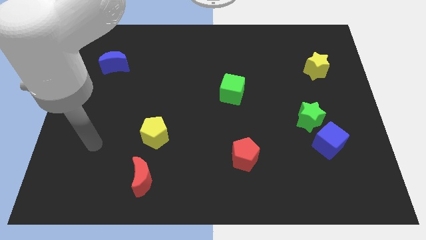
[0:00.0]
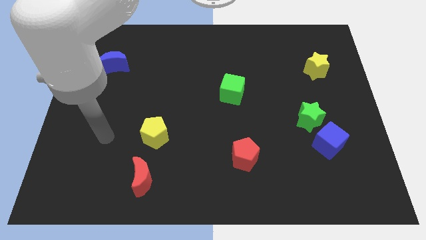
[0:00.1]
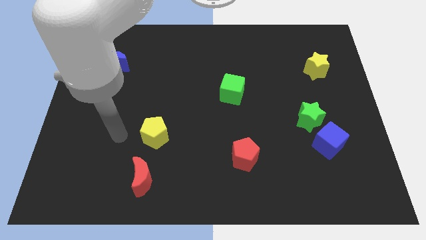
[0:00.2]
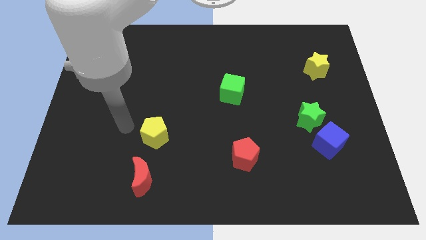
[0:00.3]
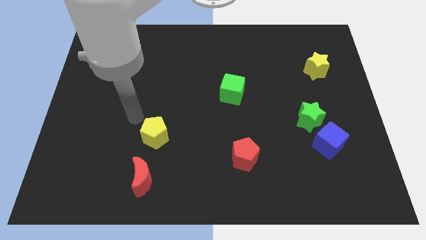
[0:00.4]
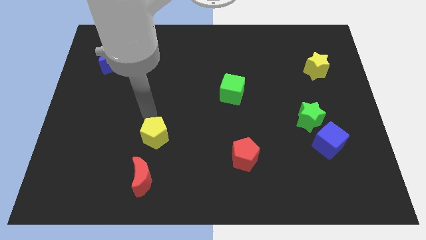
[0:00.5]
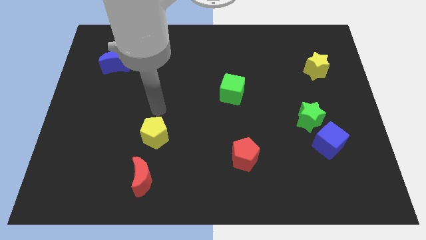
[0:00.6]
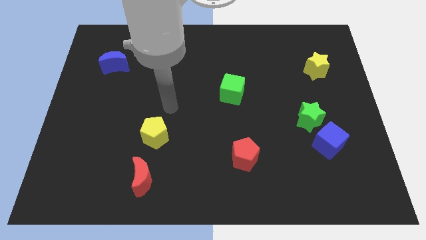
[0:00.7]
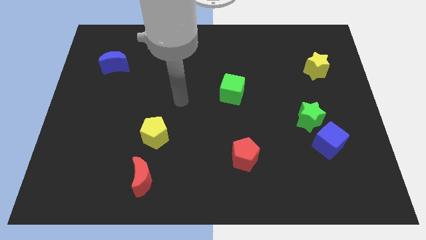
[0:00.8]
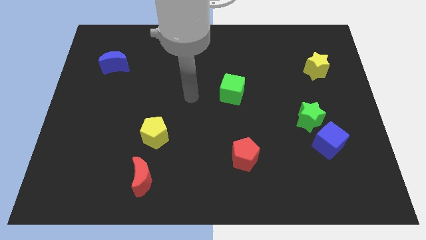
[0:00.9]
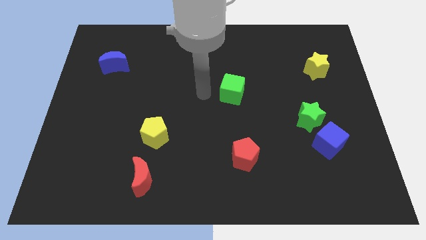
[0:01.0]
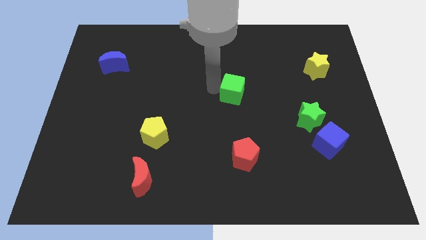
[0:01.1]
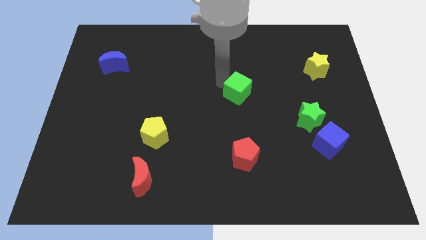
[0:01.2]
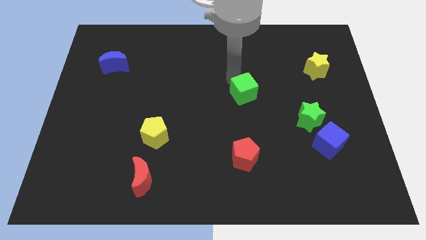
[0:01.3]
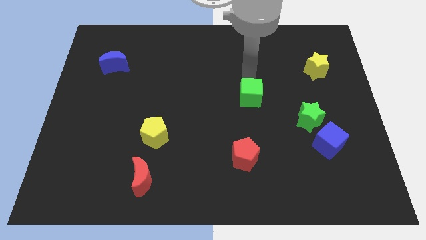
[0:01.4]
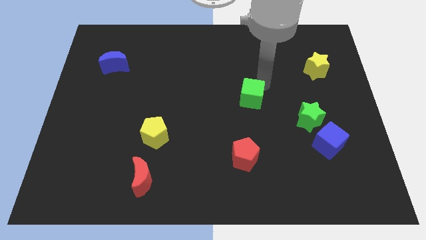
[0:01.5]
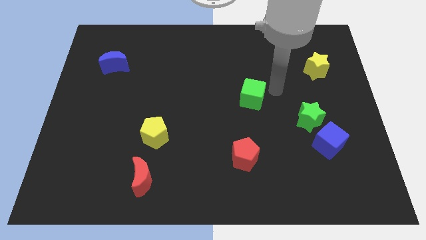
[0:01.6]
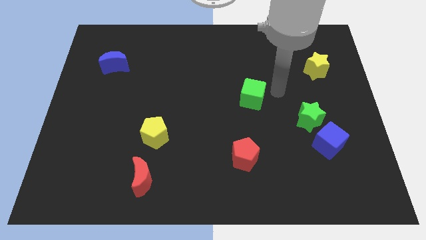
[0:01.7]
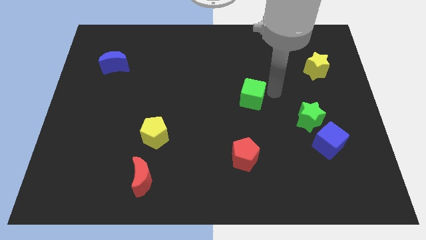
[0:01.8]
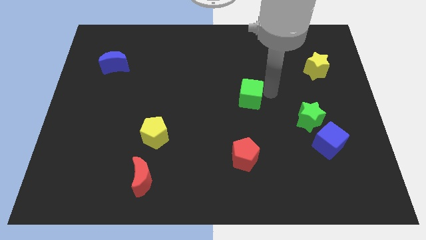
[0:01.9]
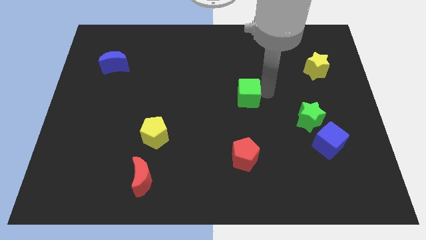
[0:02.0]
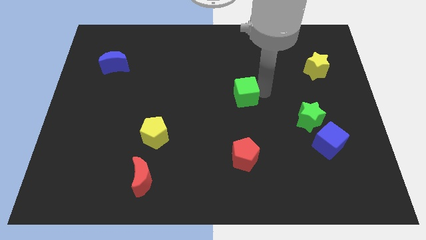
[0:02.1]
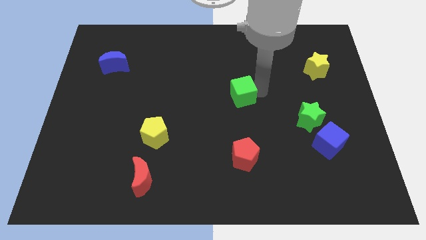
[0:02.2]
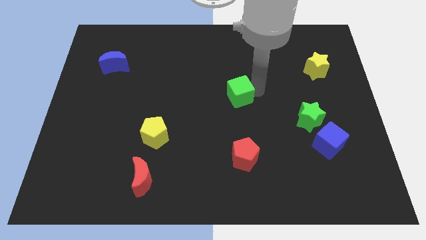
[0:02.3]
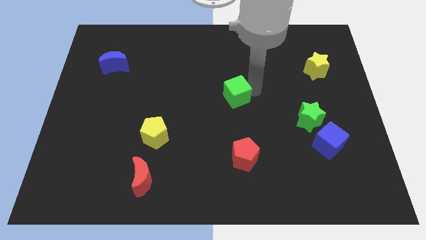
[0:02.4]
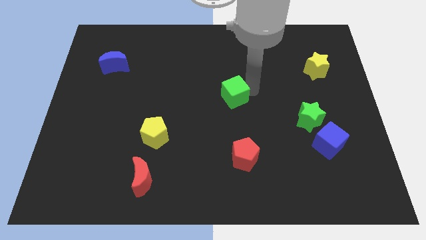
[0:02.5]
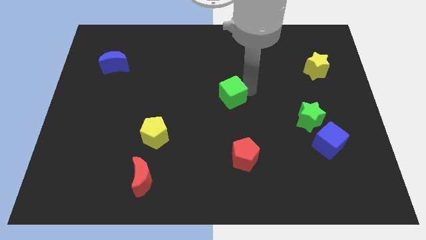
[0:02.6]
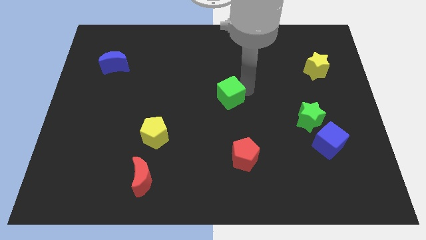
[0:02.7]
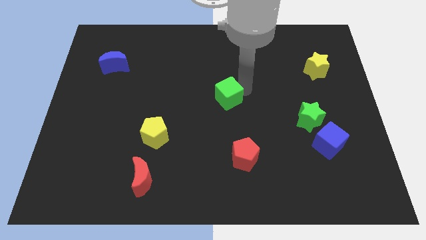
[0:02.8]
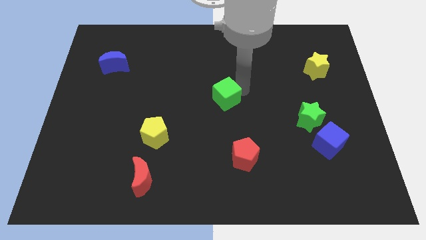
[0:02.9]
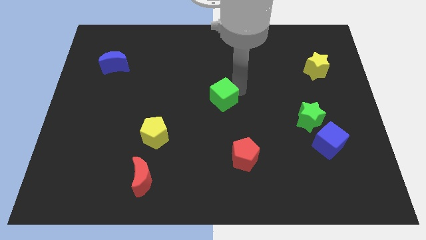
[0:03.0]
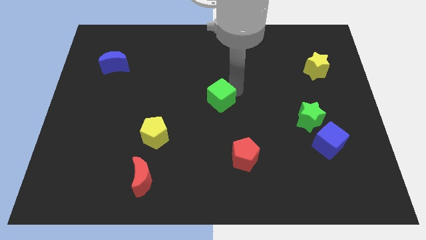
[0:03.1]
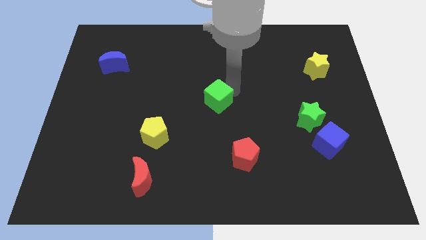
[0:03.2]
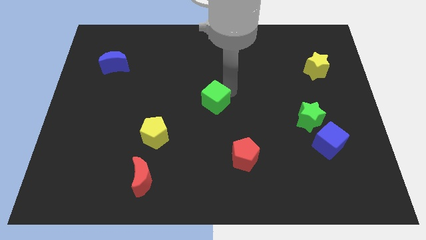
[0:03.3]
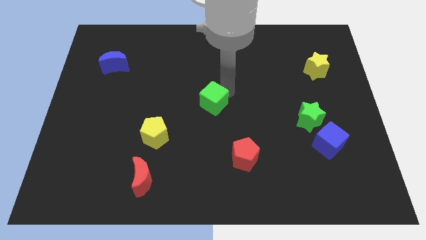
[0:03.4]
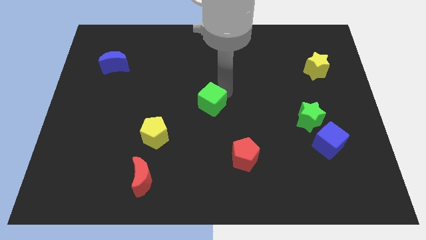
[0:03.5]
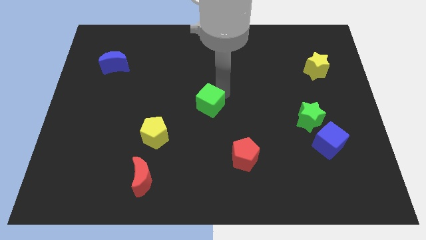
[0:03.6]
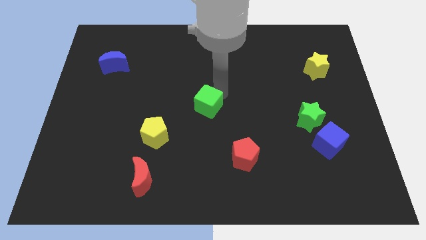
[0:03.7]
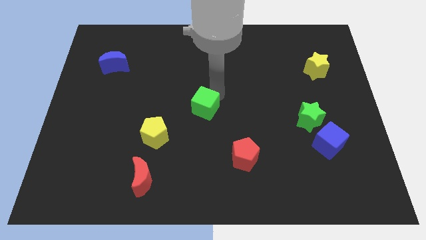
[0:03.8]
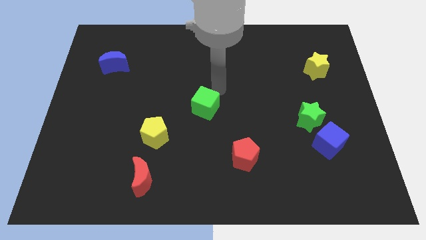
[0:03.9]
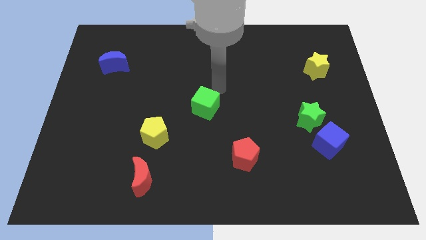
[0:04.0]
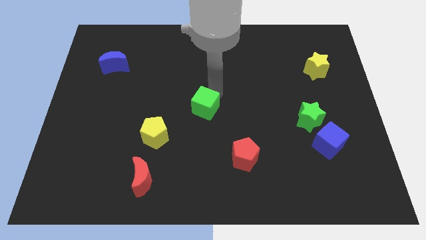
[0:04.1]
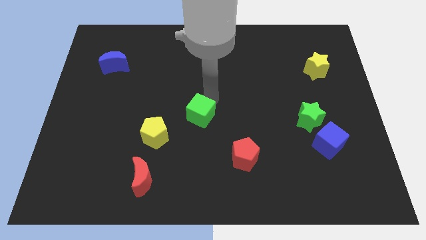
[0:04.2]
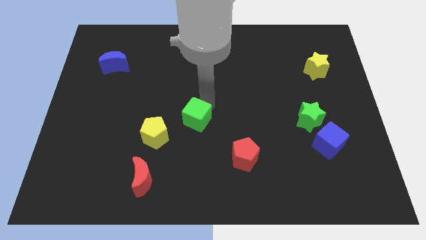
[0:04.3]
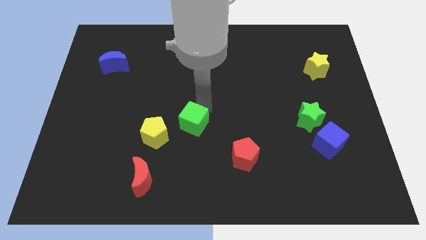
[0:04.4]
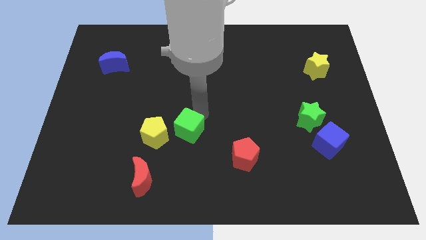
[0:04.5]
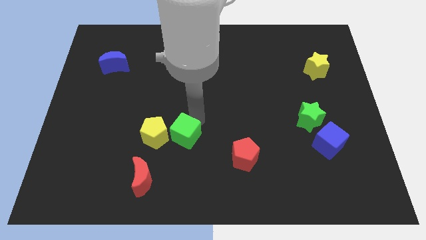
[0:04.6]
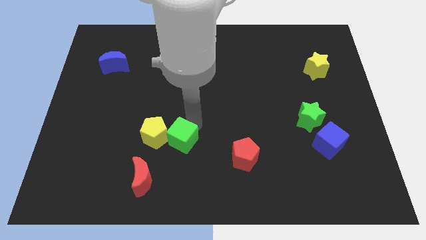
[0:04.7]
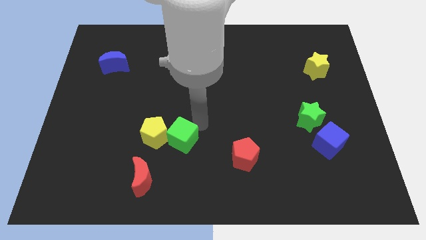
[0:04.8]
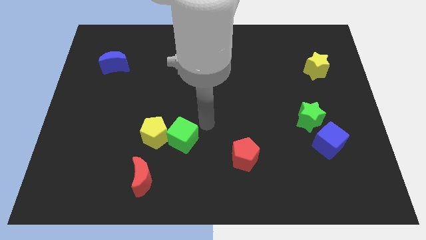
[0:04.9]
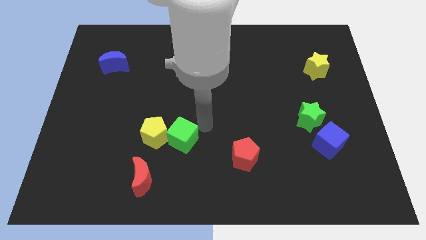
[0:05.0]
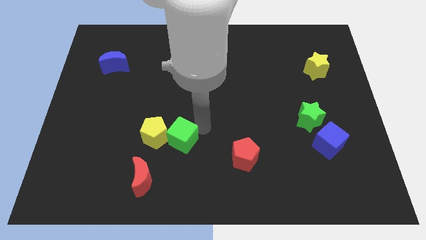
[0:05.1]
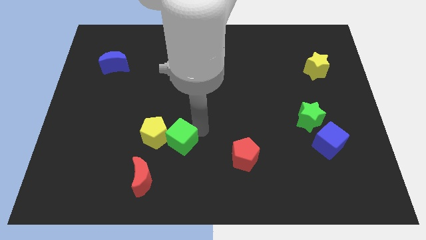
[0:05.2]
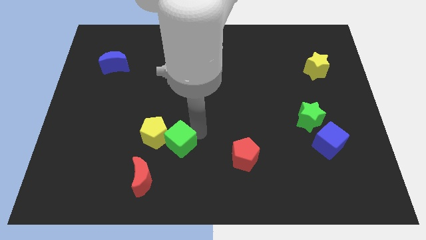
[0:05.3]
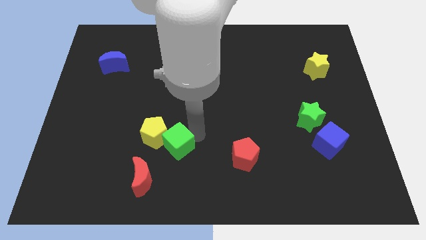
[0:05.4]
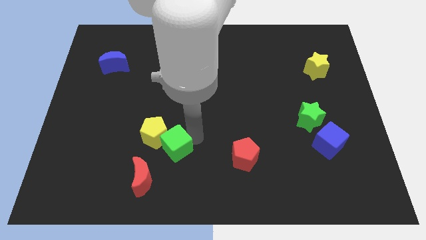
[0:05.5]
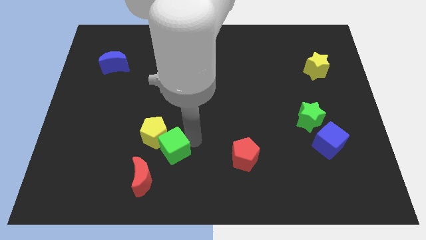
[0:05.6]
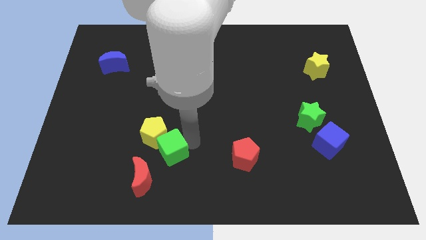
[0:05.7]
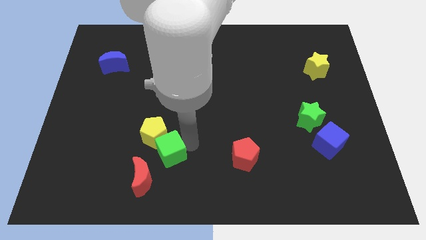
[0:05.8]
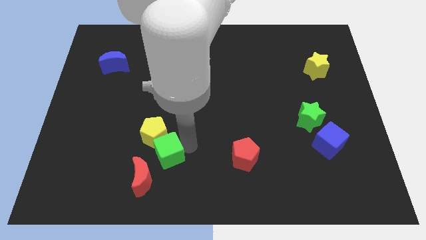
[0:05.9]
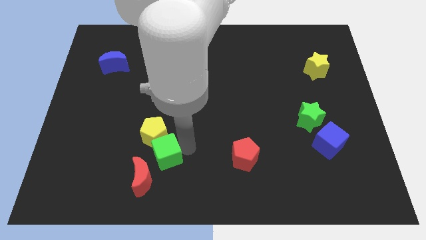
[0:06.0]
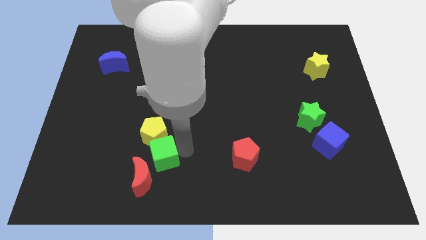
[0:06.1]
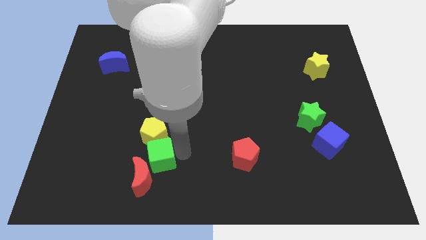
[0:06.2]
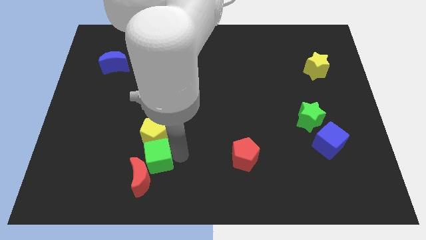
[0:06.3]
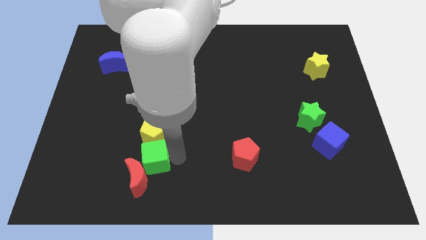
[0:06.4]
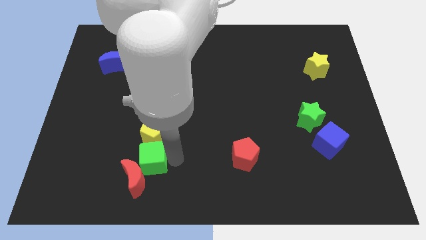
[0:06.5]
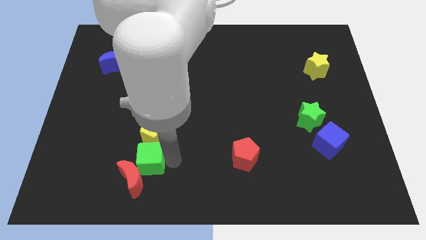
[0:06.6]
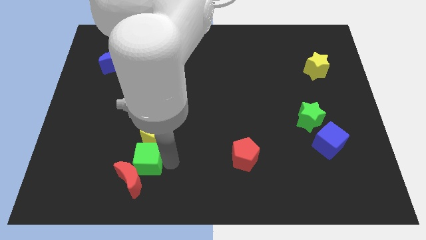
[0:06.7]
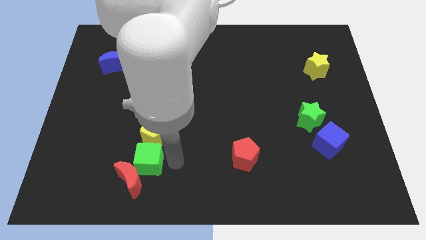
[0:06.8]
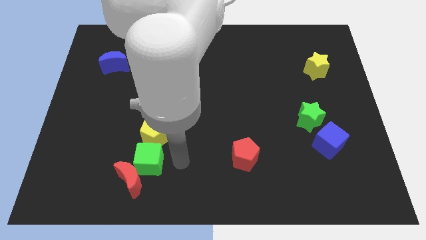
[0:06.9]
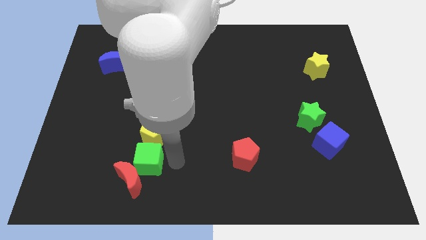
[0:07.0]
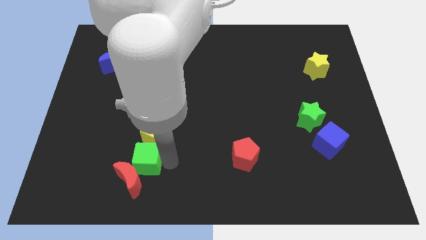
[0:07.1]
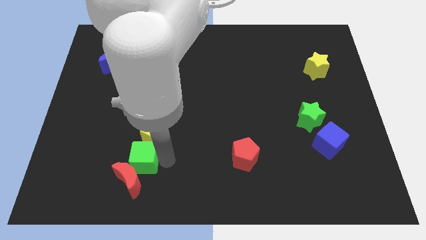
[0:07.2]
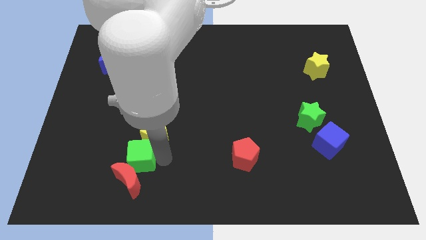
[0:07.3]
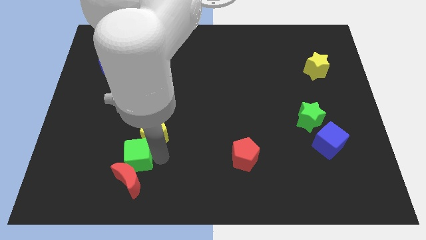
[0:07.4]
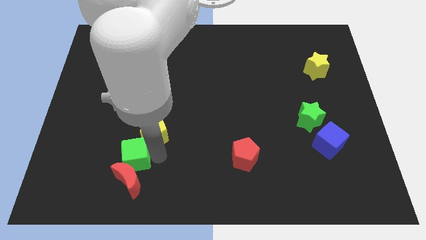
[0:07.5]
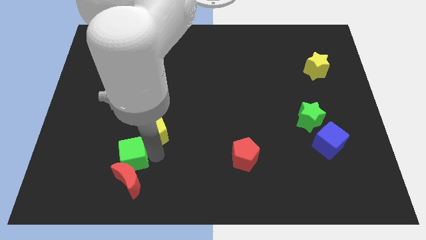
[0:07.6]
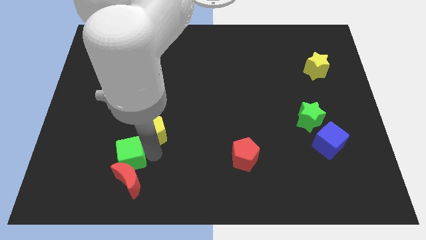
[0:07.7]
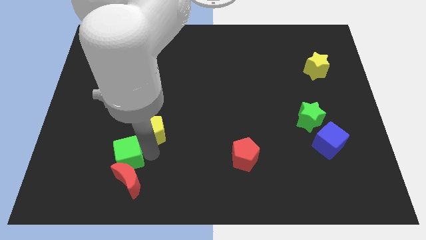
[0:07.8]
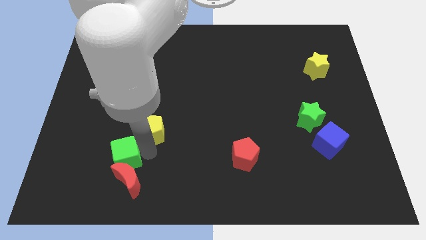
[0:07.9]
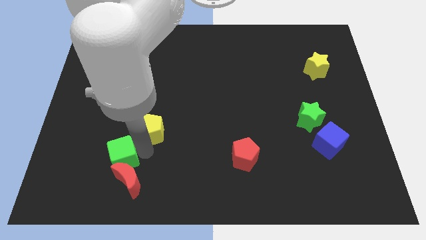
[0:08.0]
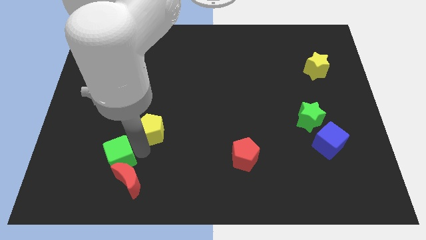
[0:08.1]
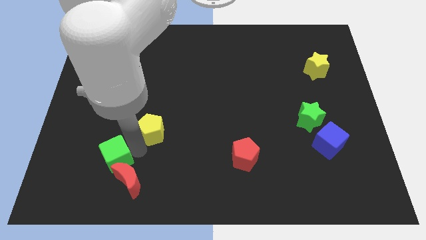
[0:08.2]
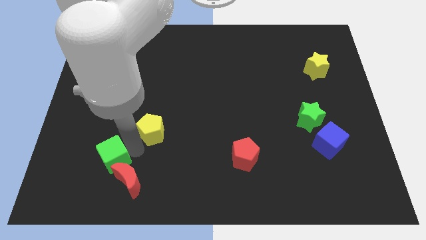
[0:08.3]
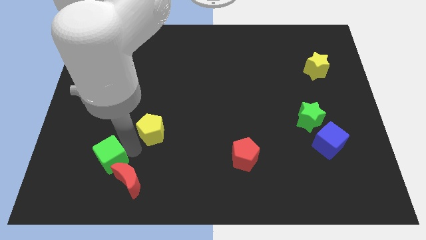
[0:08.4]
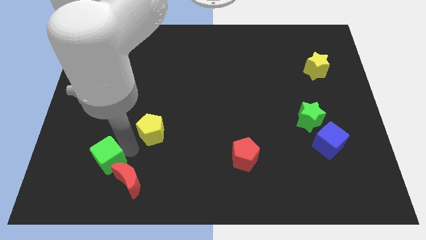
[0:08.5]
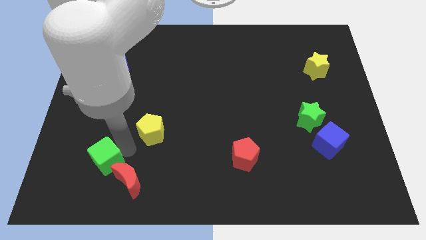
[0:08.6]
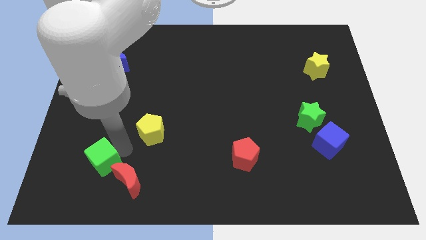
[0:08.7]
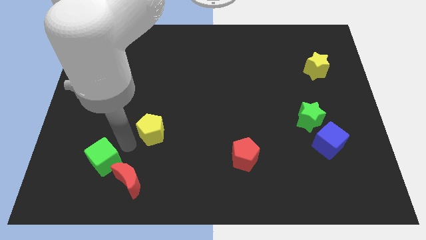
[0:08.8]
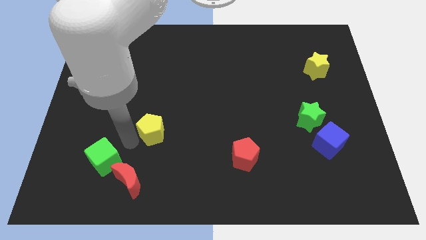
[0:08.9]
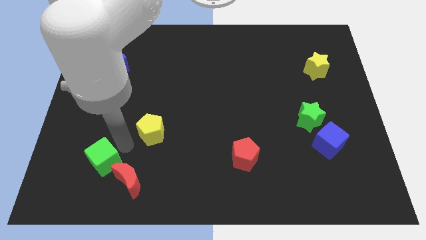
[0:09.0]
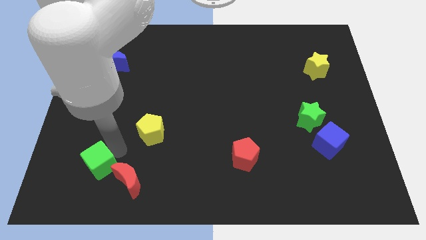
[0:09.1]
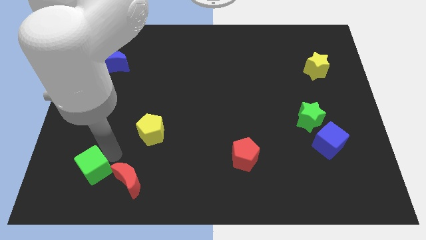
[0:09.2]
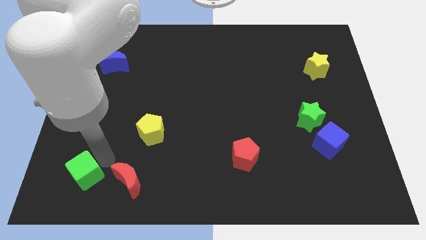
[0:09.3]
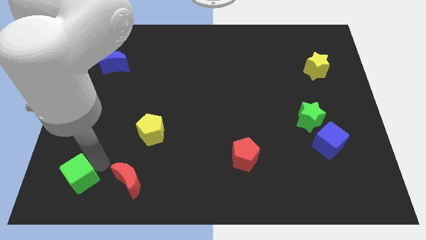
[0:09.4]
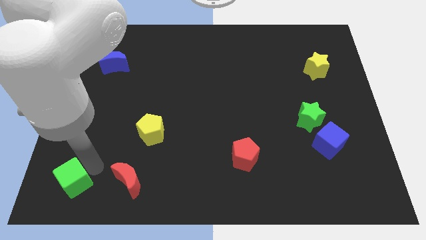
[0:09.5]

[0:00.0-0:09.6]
move the green cube to the lower left corner
